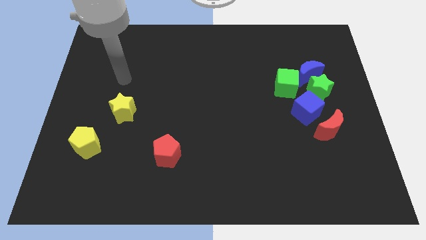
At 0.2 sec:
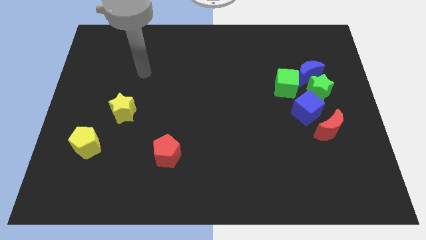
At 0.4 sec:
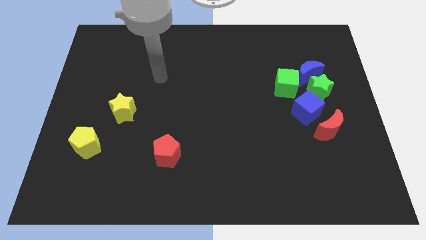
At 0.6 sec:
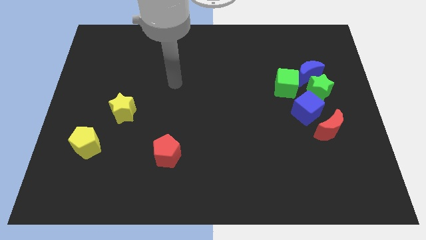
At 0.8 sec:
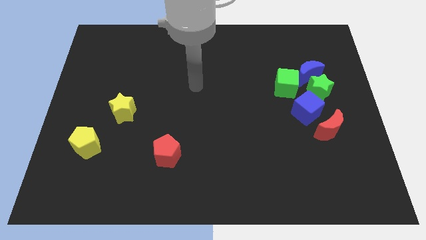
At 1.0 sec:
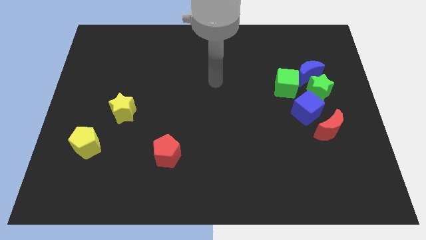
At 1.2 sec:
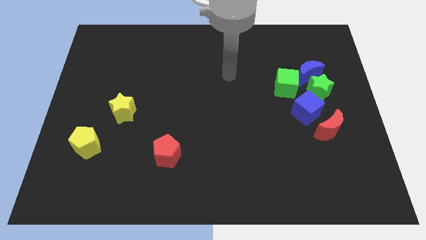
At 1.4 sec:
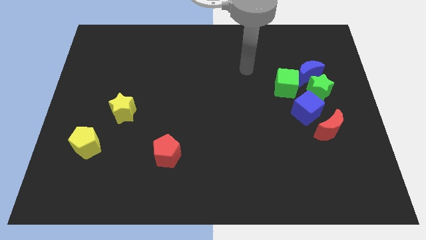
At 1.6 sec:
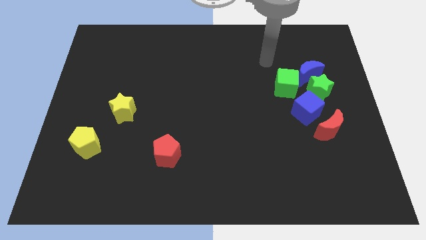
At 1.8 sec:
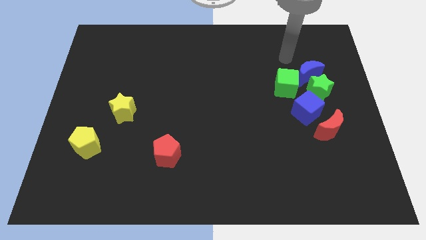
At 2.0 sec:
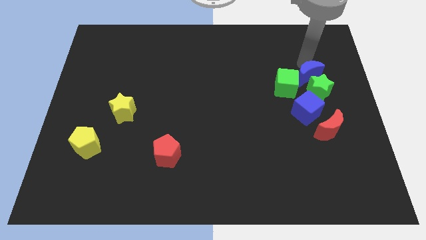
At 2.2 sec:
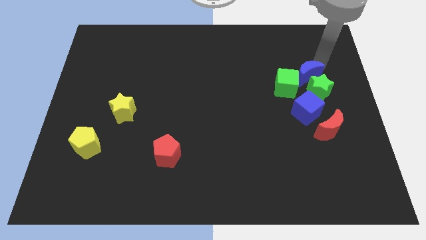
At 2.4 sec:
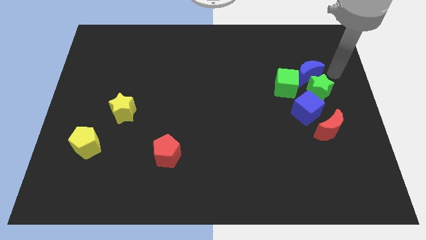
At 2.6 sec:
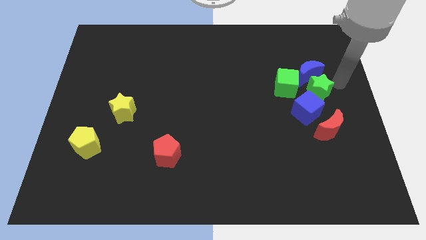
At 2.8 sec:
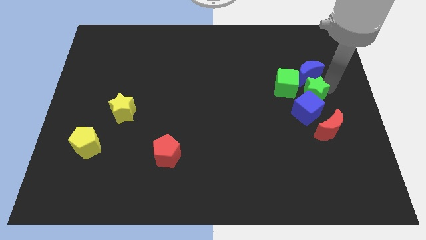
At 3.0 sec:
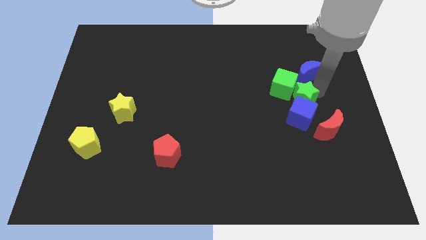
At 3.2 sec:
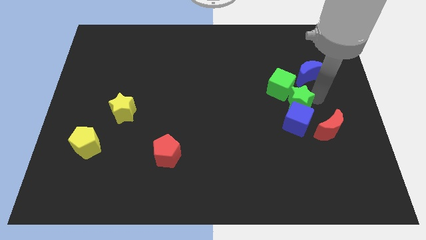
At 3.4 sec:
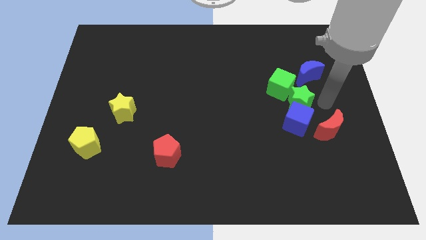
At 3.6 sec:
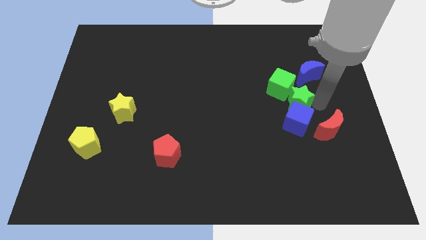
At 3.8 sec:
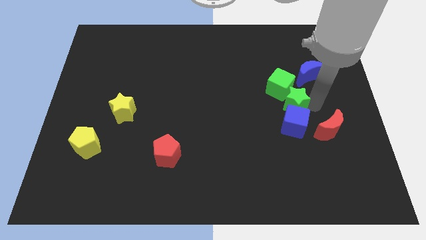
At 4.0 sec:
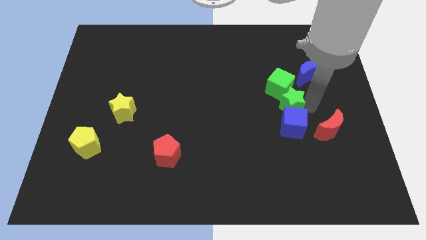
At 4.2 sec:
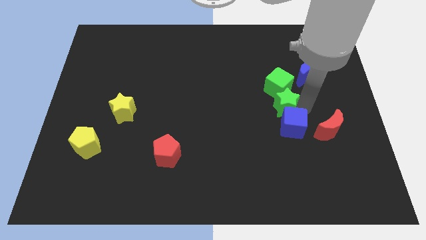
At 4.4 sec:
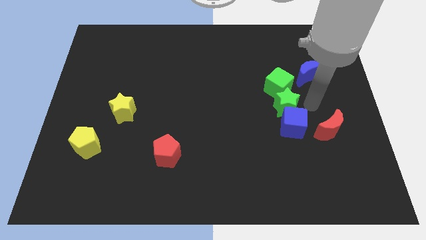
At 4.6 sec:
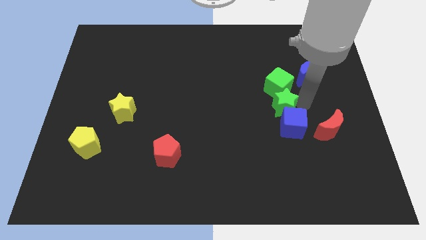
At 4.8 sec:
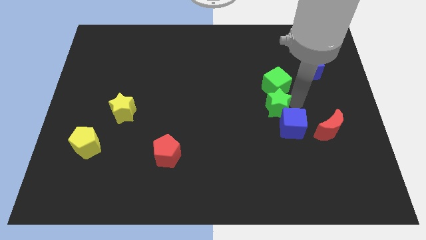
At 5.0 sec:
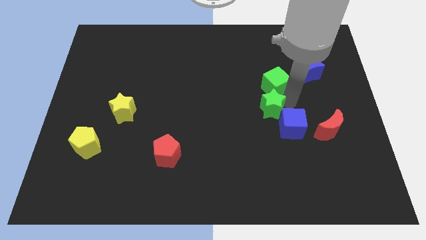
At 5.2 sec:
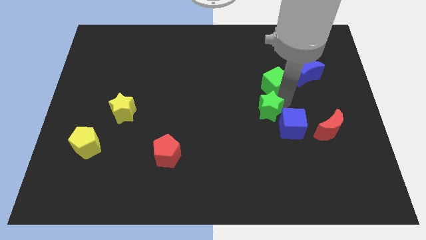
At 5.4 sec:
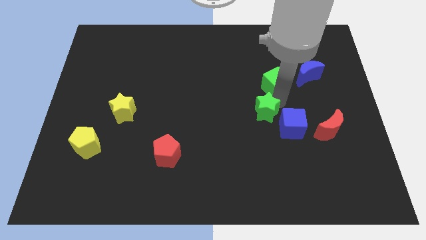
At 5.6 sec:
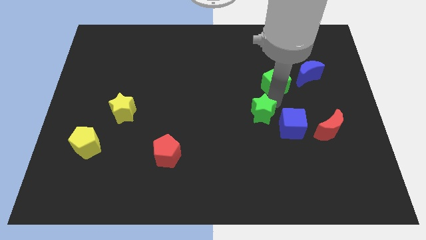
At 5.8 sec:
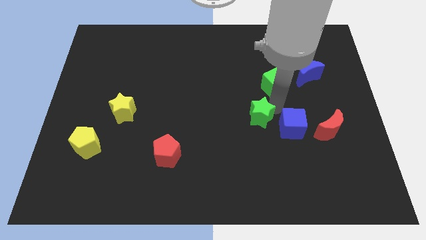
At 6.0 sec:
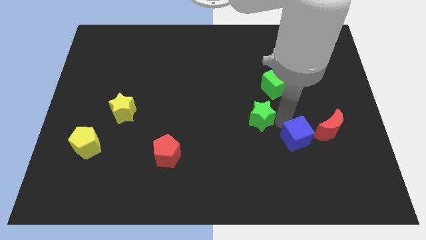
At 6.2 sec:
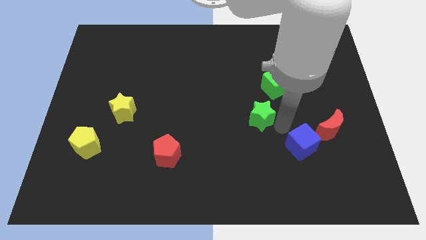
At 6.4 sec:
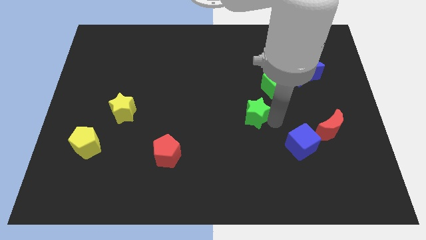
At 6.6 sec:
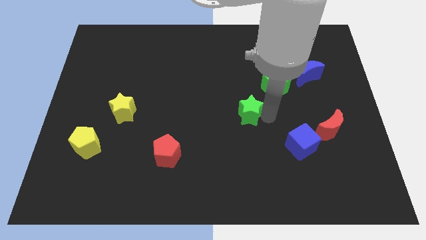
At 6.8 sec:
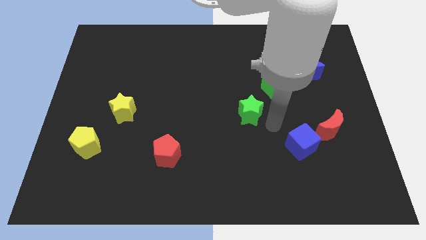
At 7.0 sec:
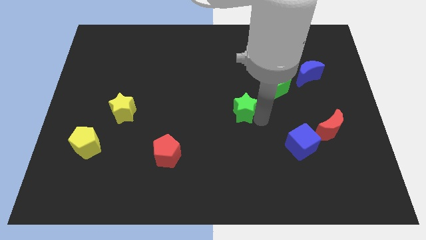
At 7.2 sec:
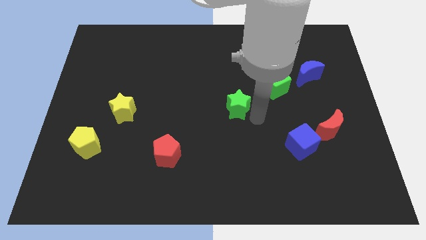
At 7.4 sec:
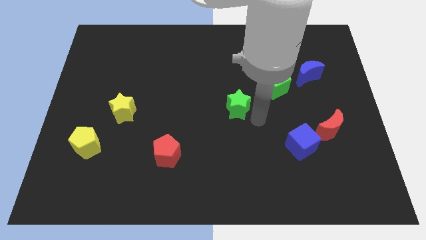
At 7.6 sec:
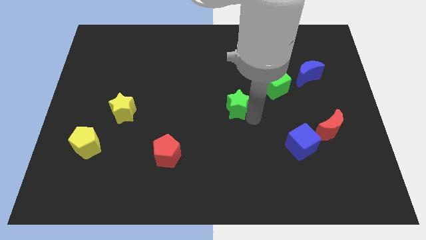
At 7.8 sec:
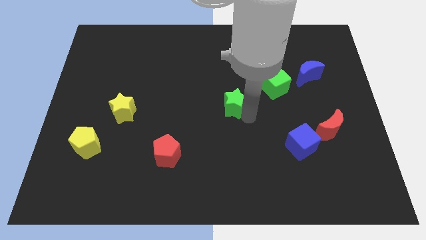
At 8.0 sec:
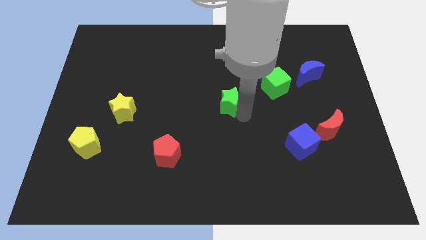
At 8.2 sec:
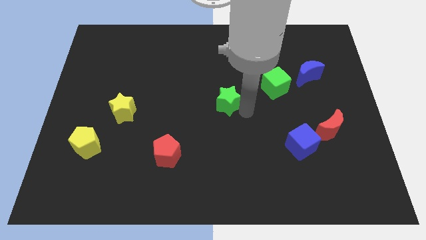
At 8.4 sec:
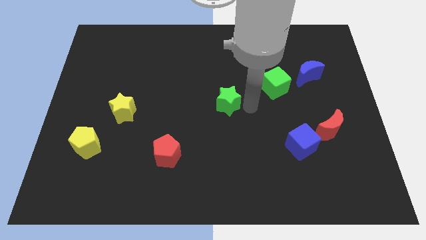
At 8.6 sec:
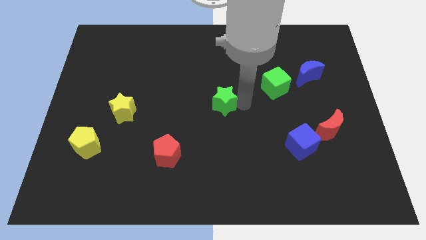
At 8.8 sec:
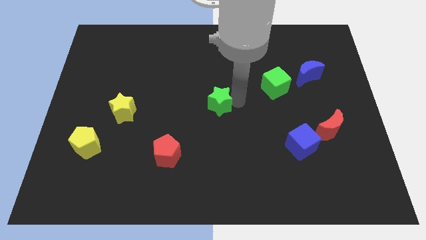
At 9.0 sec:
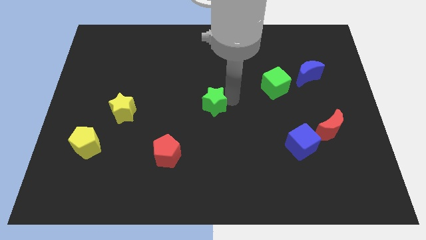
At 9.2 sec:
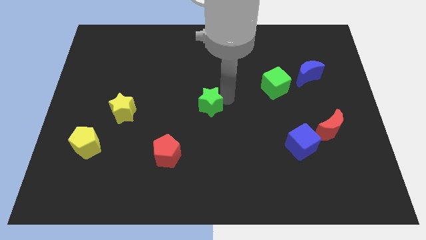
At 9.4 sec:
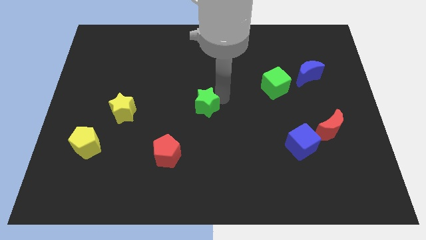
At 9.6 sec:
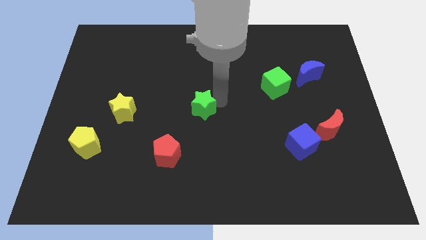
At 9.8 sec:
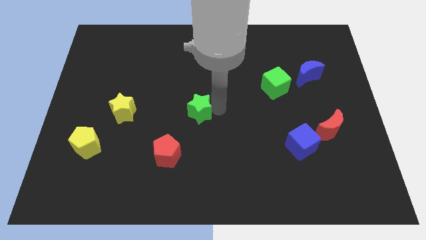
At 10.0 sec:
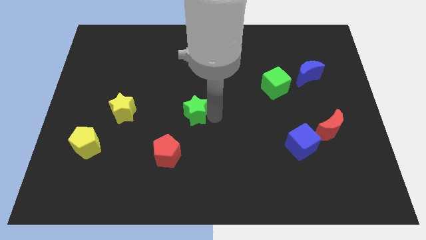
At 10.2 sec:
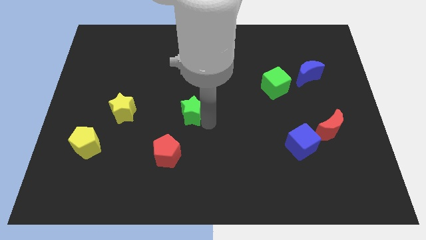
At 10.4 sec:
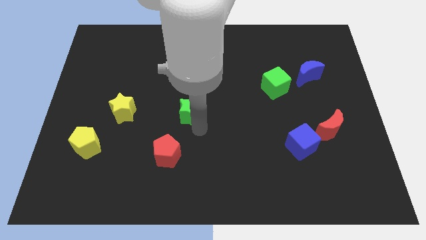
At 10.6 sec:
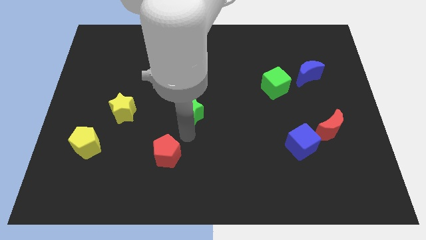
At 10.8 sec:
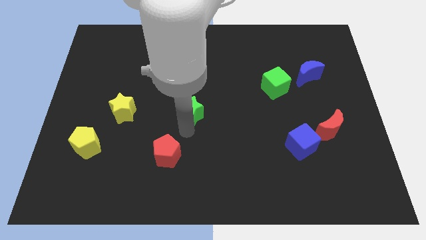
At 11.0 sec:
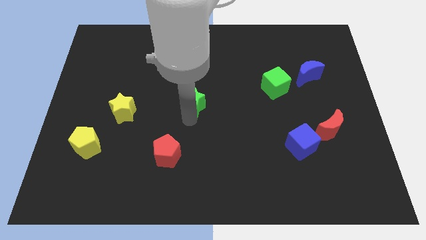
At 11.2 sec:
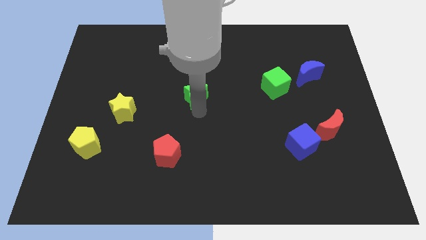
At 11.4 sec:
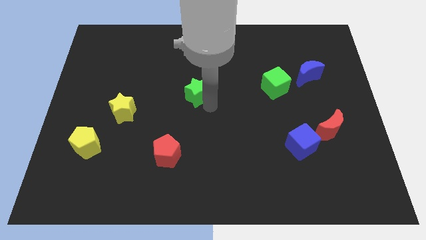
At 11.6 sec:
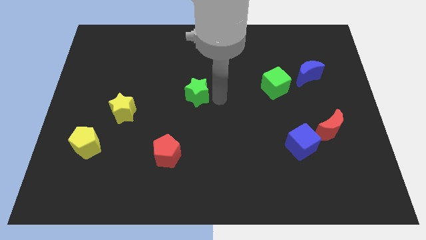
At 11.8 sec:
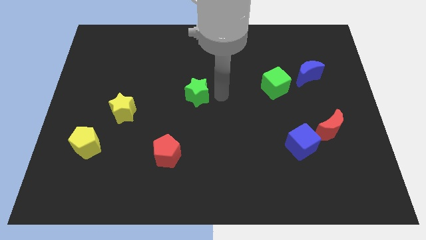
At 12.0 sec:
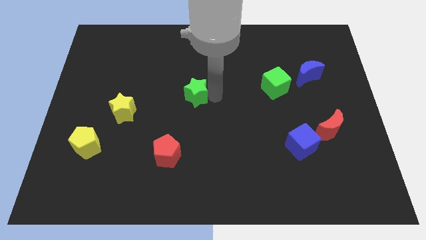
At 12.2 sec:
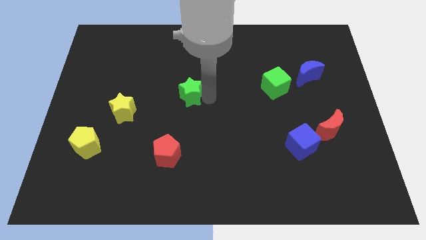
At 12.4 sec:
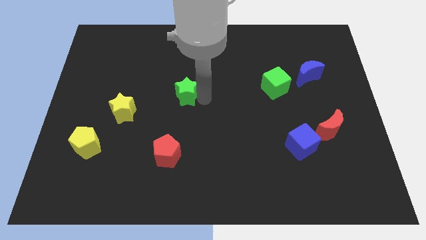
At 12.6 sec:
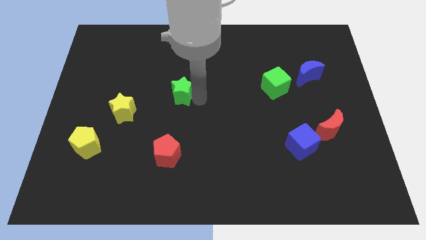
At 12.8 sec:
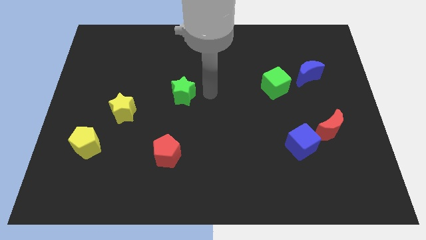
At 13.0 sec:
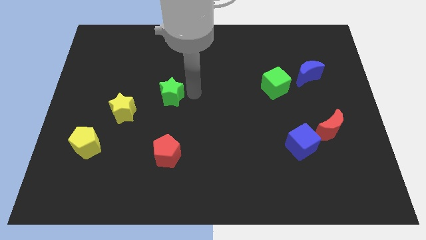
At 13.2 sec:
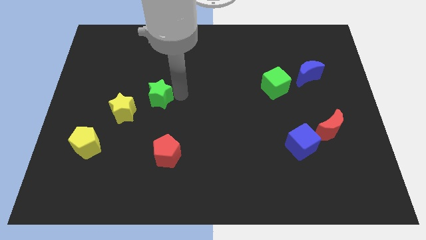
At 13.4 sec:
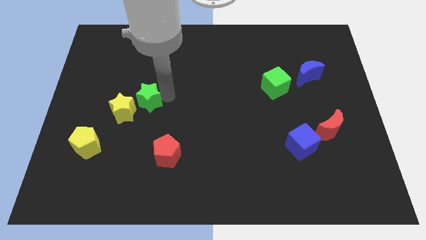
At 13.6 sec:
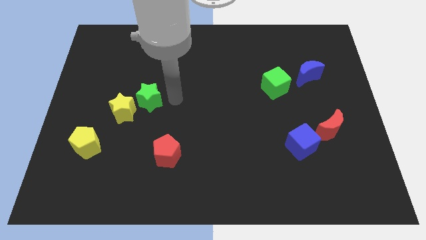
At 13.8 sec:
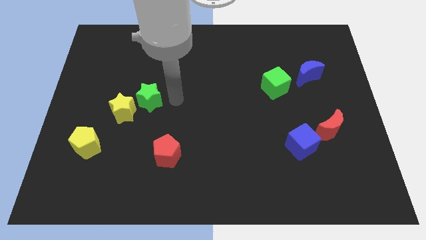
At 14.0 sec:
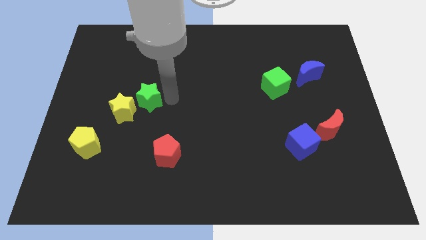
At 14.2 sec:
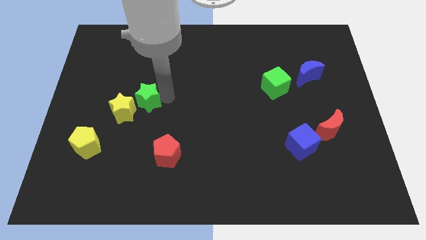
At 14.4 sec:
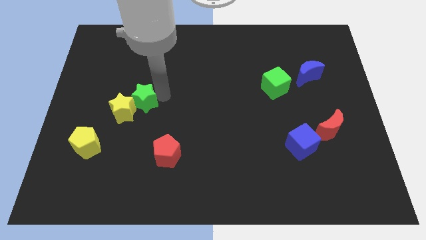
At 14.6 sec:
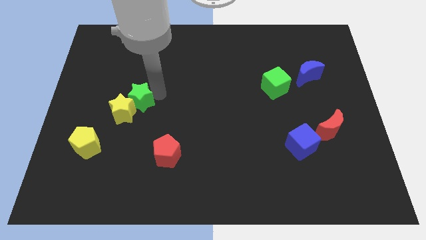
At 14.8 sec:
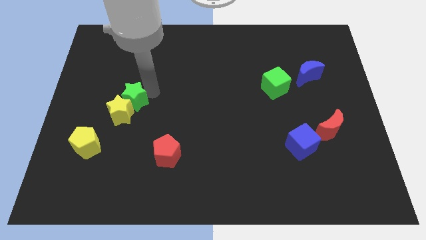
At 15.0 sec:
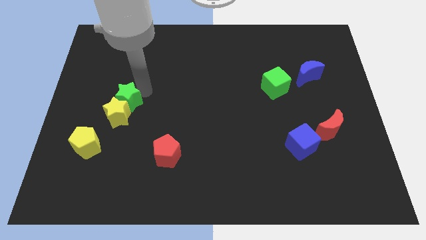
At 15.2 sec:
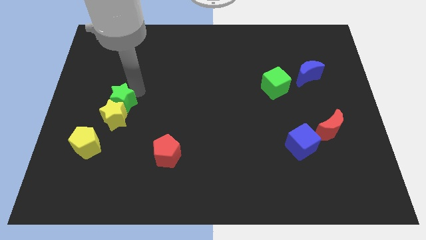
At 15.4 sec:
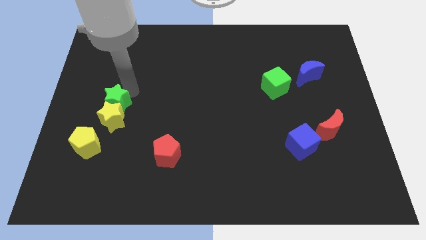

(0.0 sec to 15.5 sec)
move the green star above the yellow pentagon
